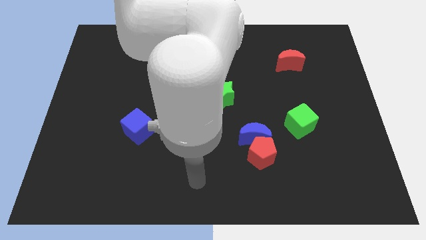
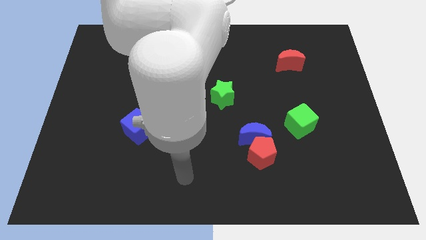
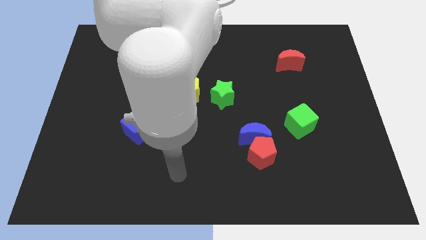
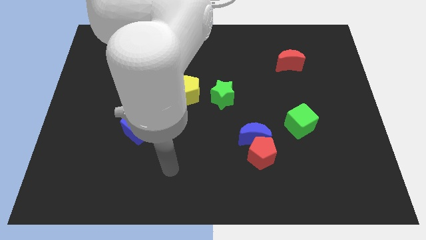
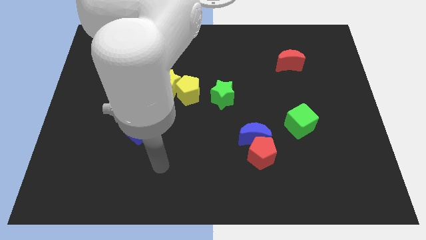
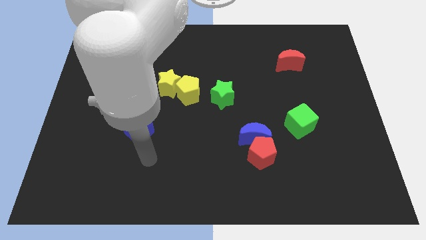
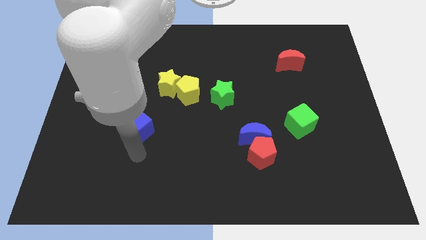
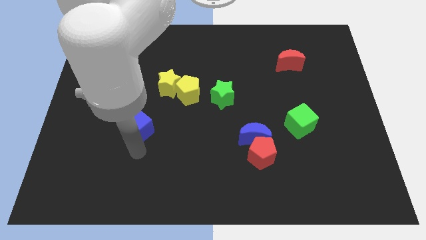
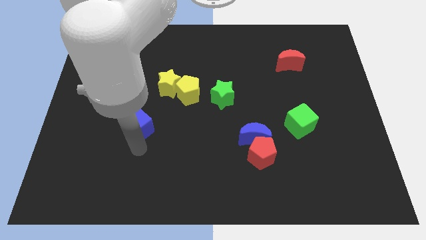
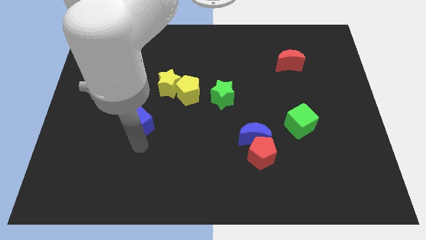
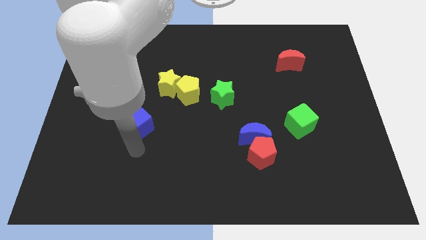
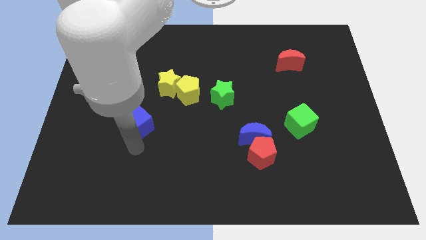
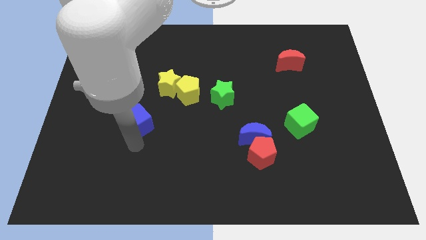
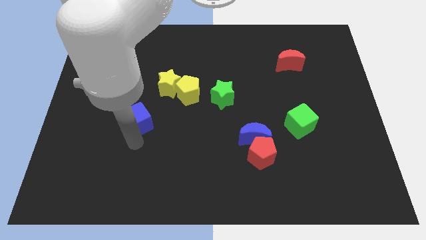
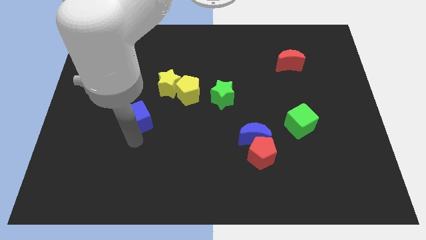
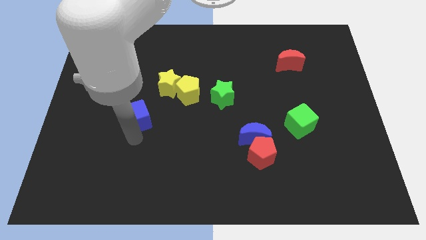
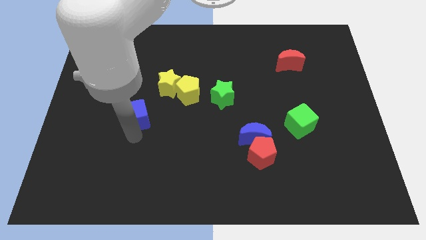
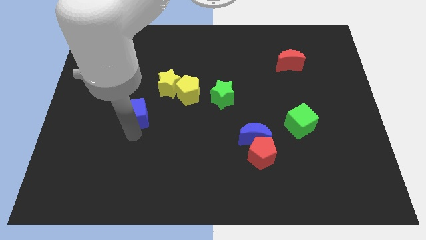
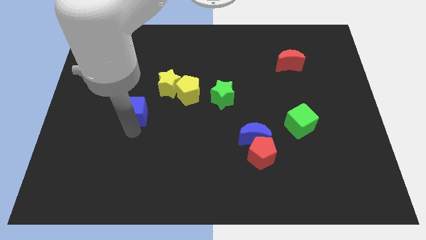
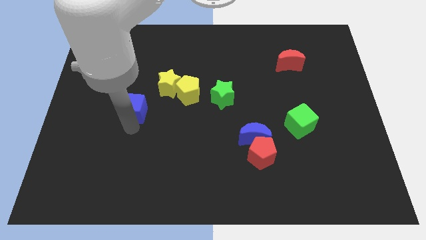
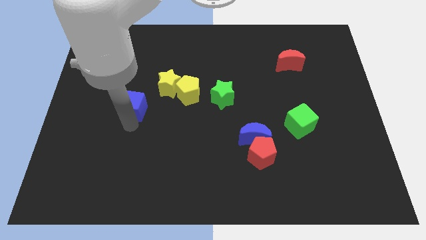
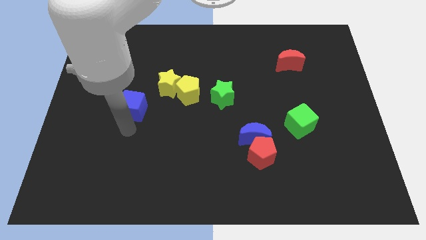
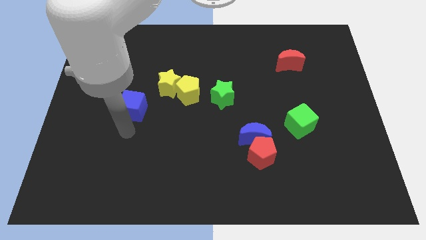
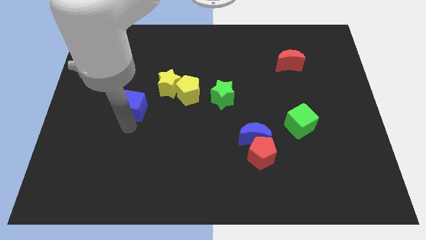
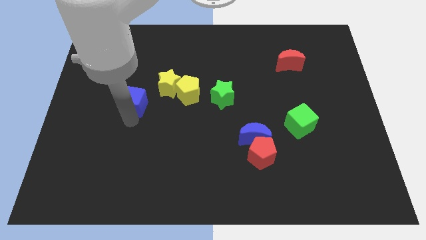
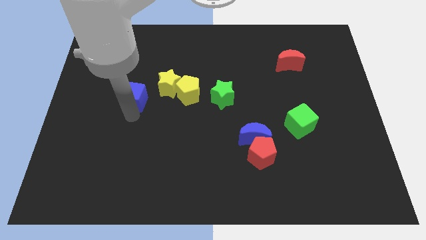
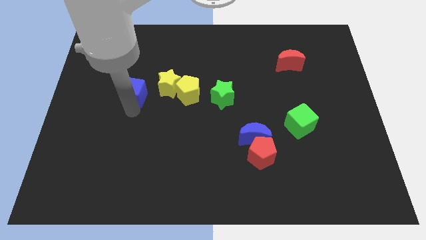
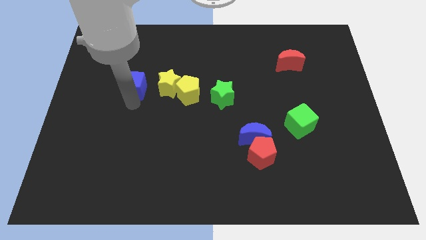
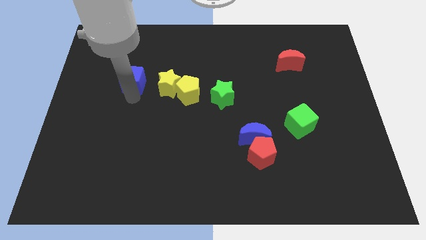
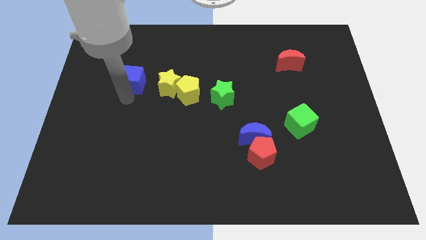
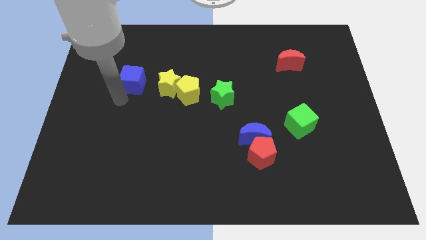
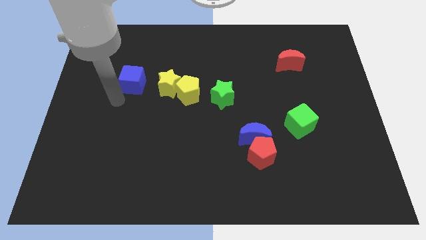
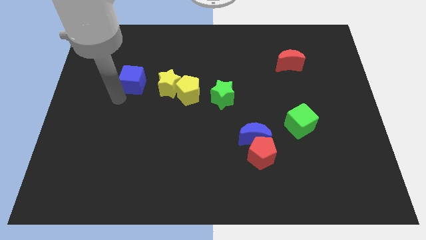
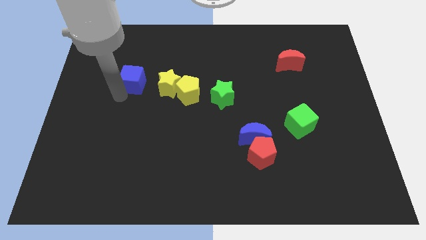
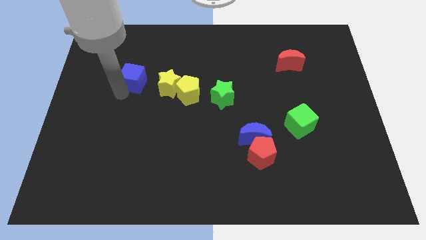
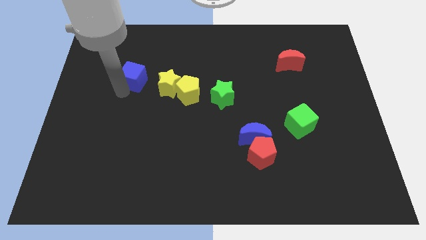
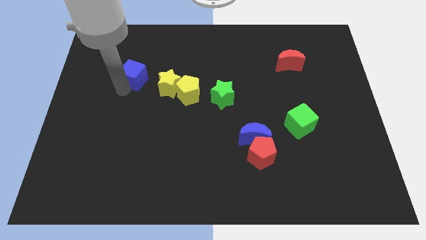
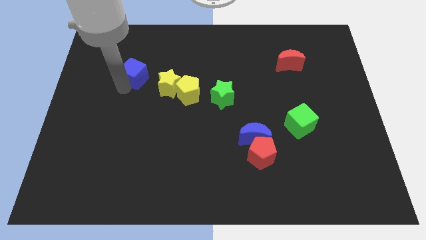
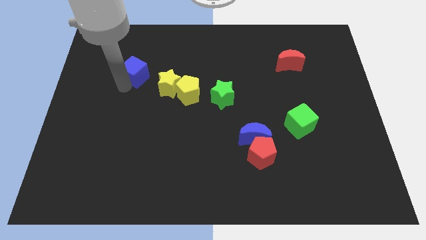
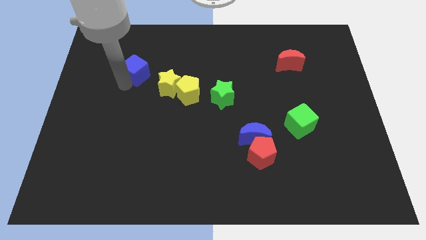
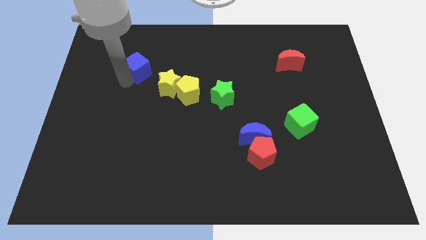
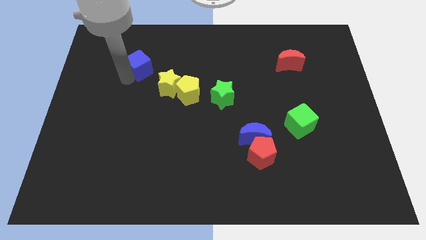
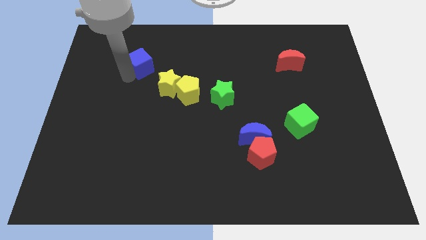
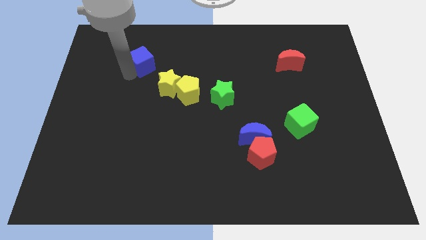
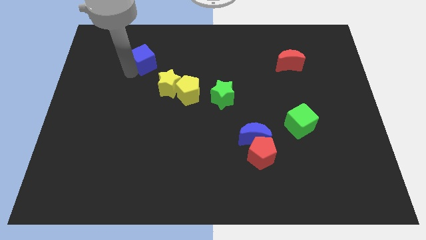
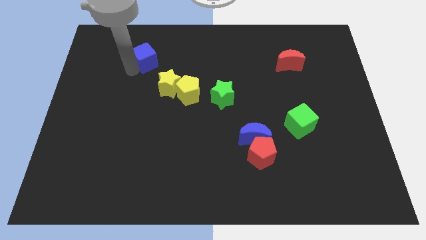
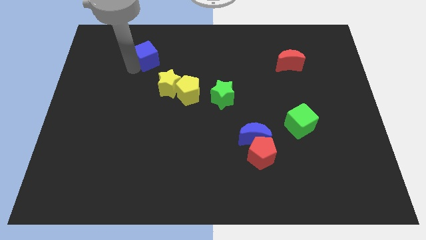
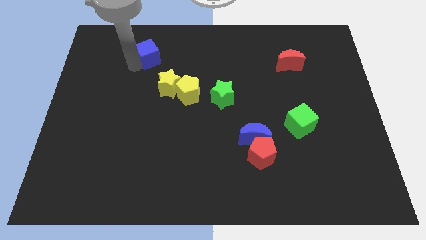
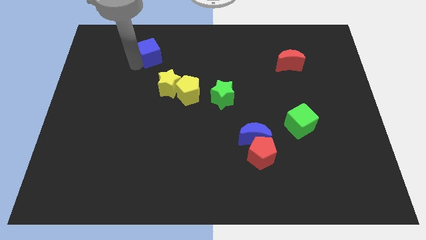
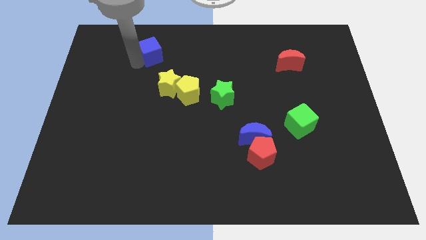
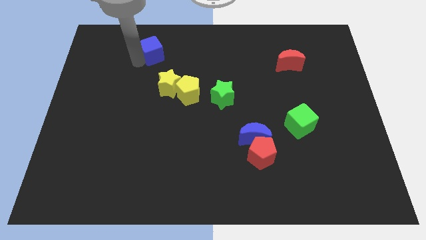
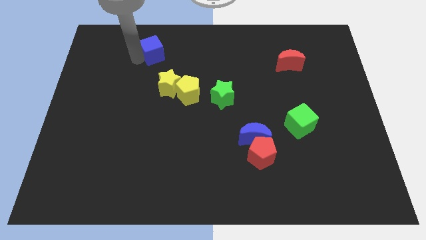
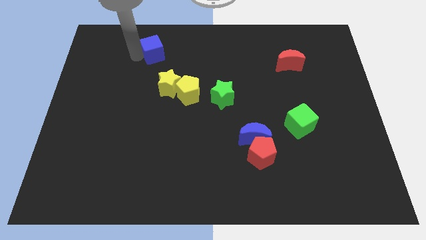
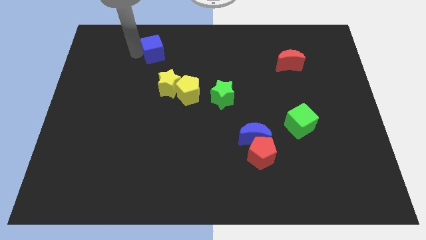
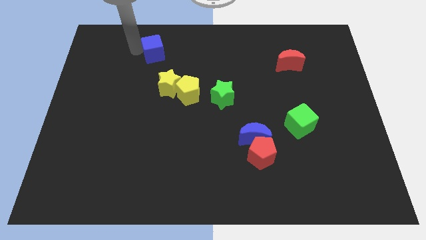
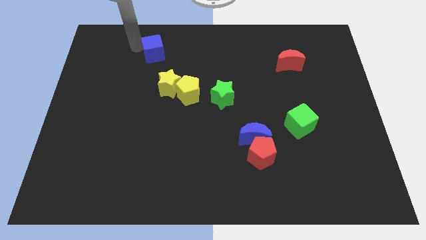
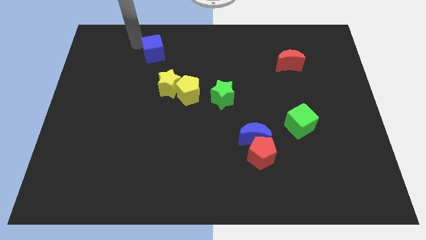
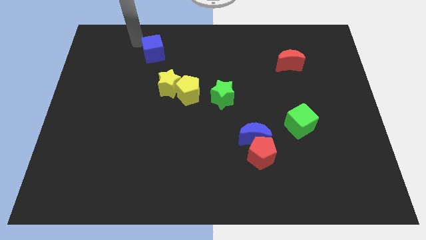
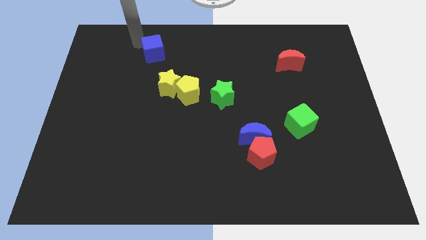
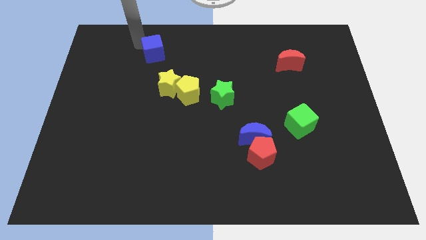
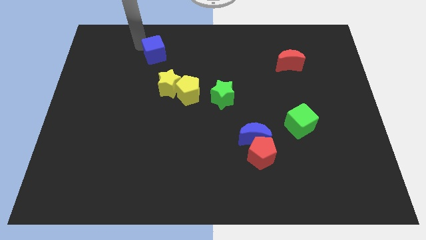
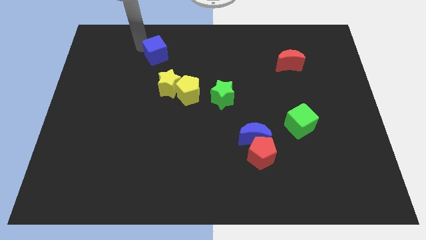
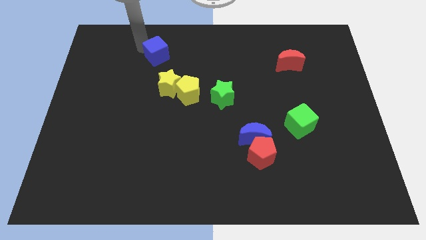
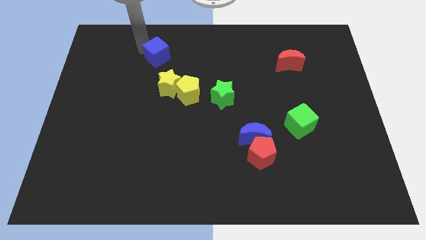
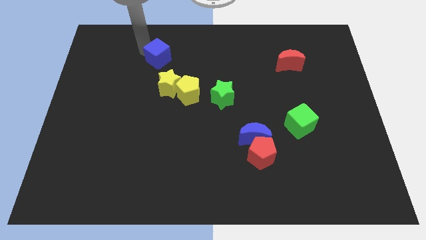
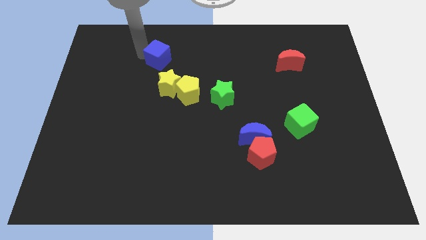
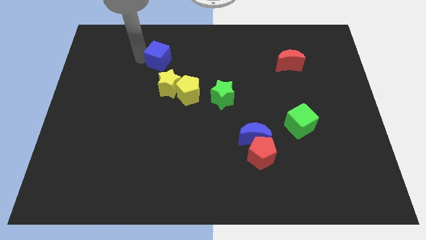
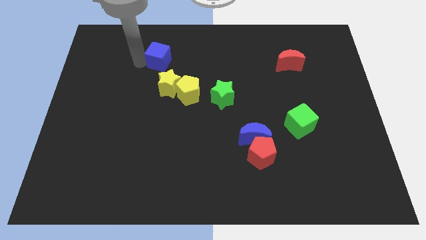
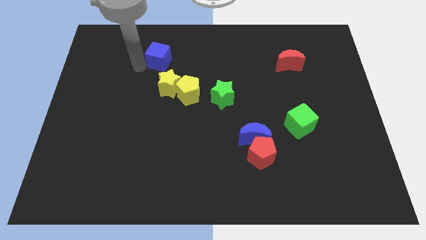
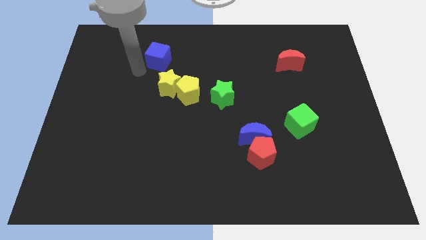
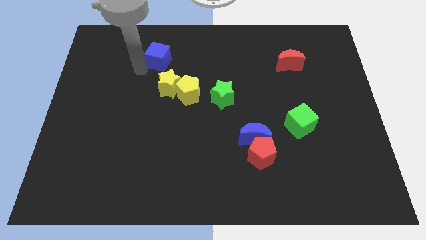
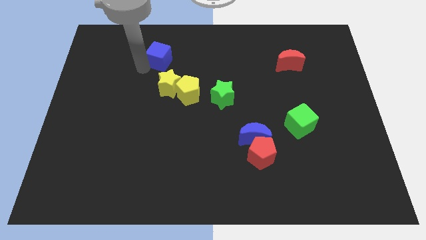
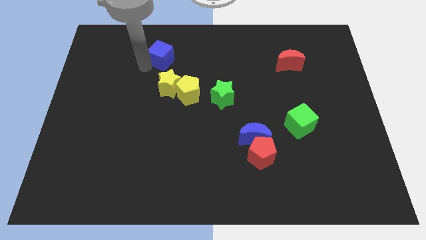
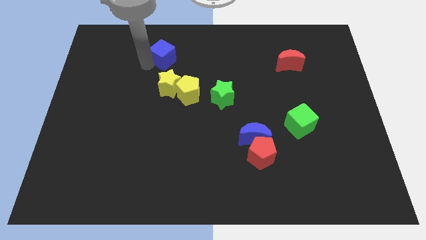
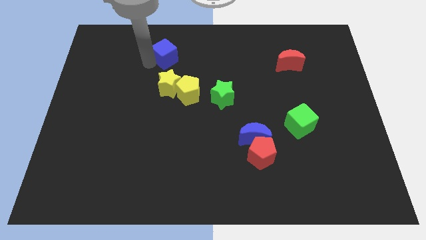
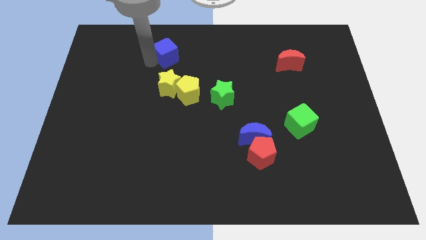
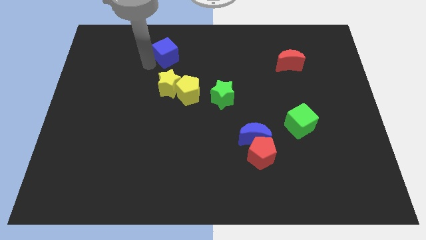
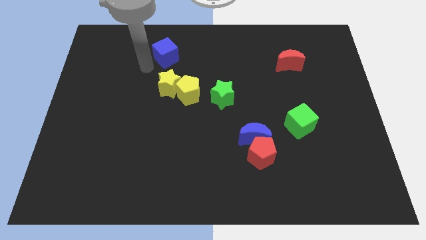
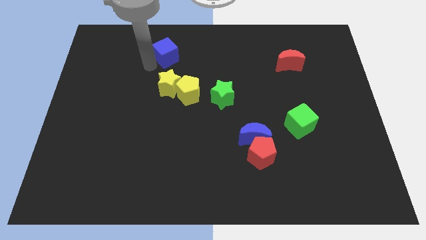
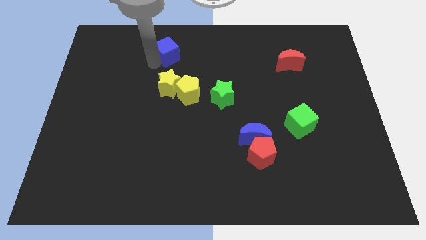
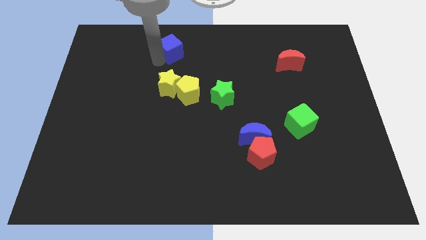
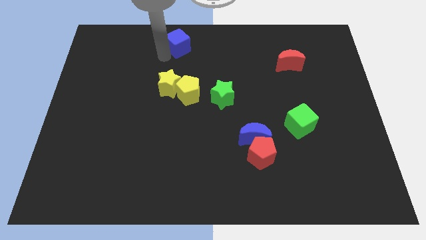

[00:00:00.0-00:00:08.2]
put the blue cube to the towards your base
